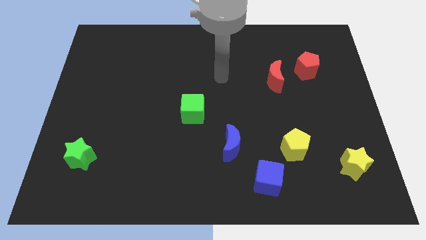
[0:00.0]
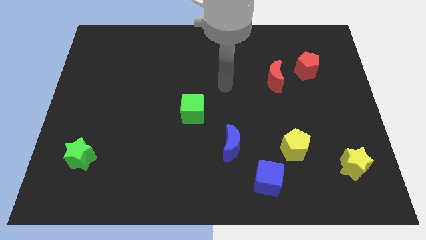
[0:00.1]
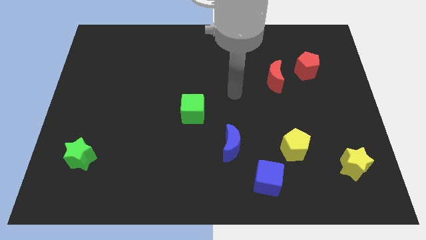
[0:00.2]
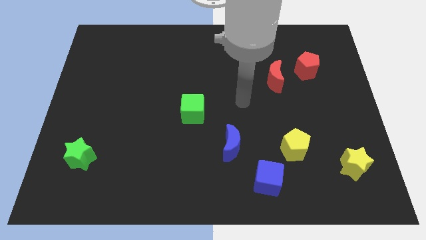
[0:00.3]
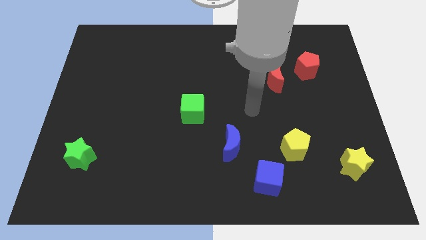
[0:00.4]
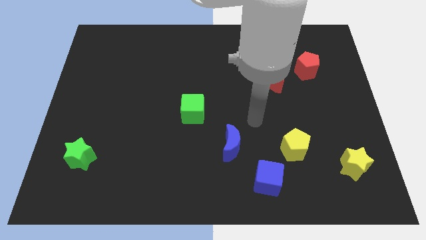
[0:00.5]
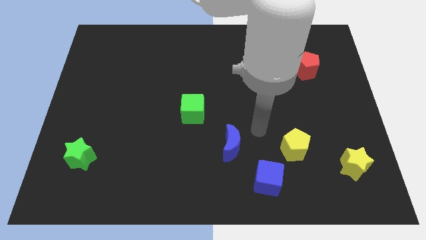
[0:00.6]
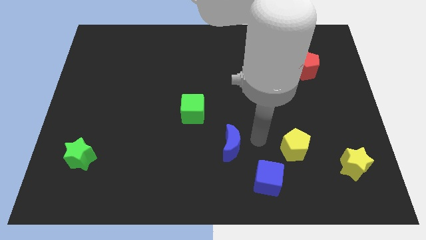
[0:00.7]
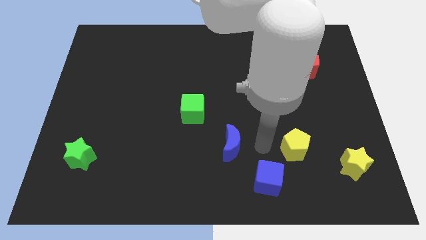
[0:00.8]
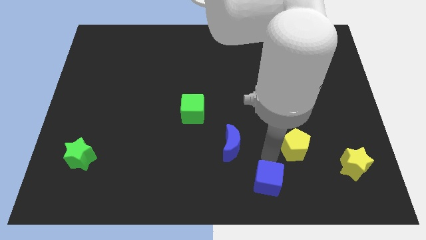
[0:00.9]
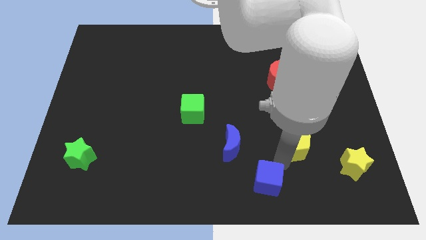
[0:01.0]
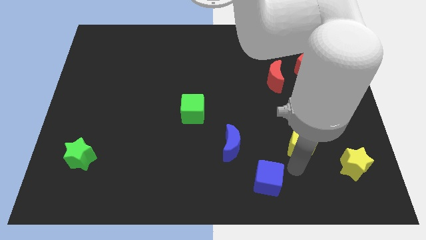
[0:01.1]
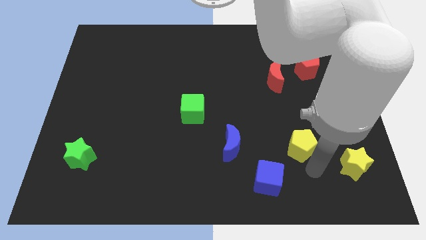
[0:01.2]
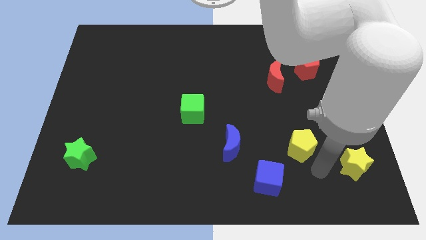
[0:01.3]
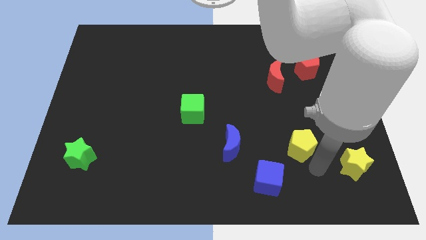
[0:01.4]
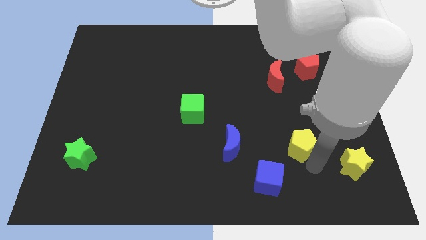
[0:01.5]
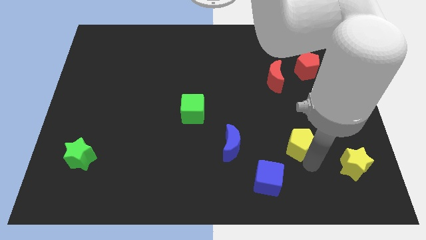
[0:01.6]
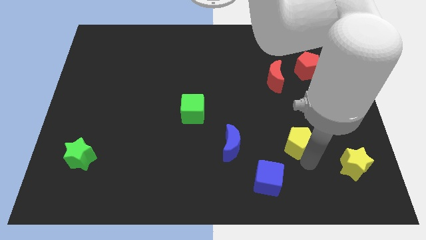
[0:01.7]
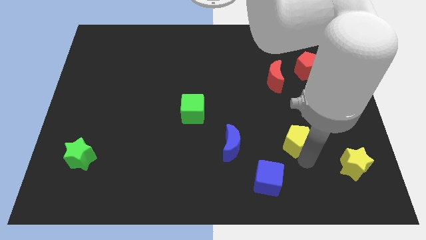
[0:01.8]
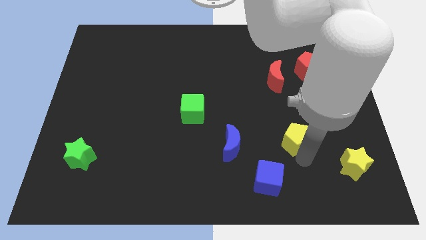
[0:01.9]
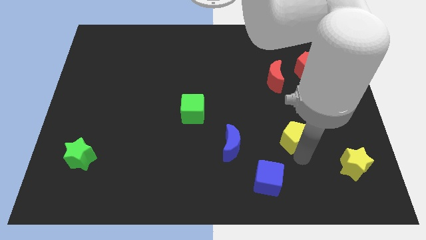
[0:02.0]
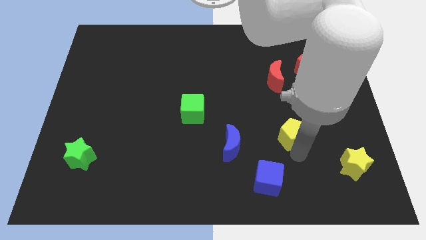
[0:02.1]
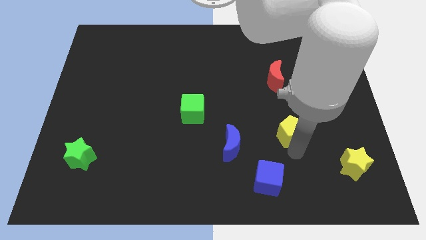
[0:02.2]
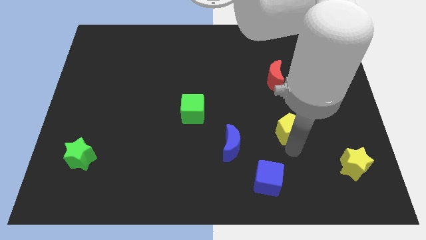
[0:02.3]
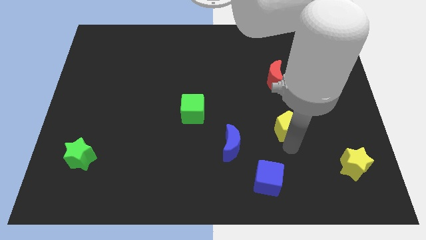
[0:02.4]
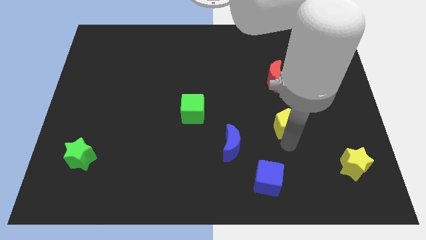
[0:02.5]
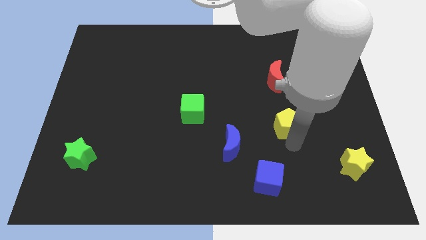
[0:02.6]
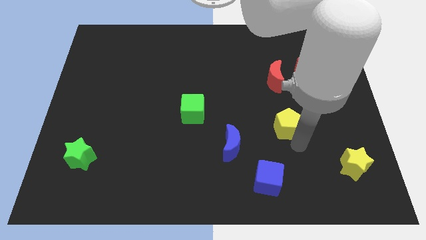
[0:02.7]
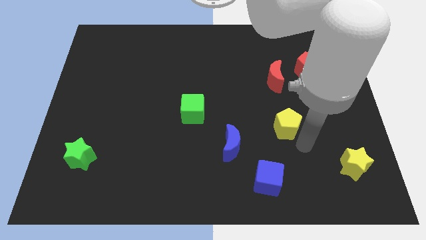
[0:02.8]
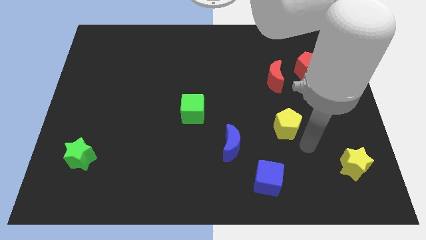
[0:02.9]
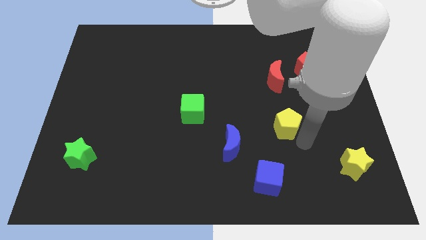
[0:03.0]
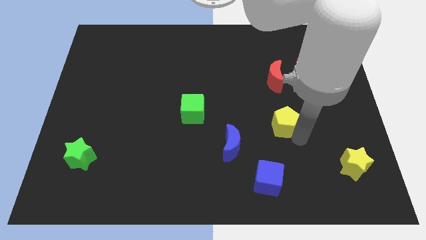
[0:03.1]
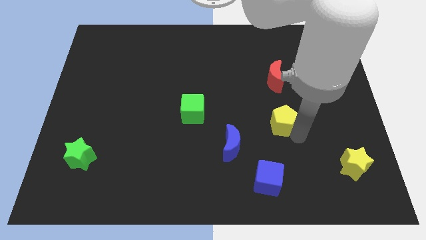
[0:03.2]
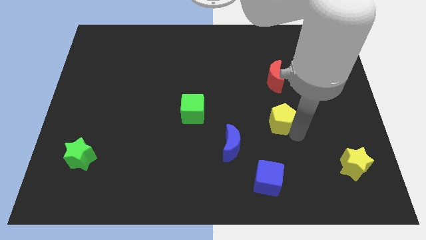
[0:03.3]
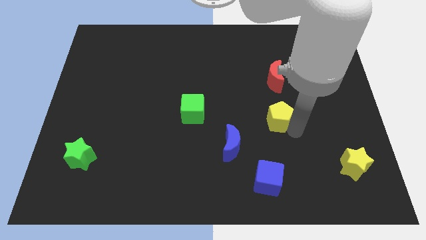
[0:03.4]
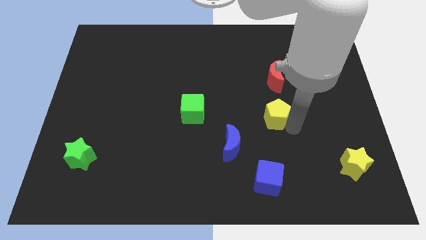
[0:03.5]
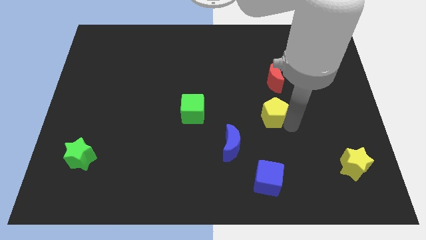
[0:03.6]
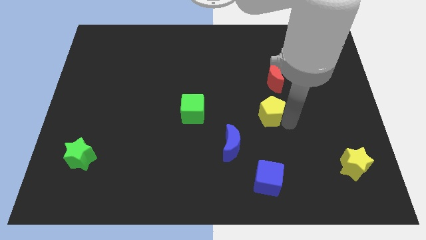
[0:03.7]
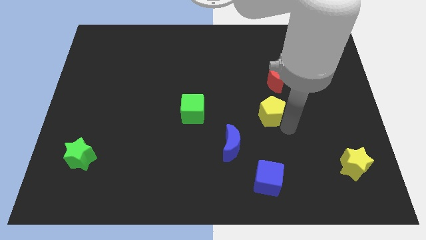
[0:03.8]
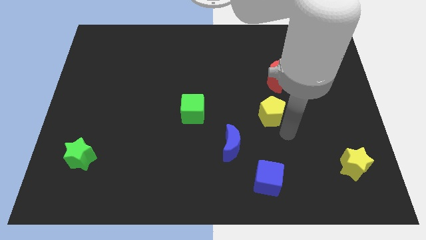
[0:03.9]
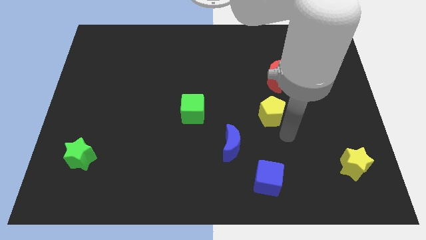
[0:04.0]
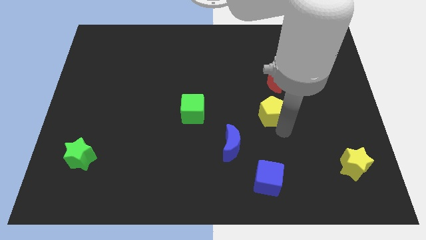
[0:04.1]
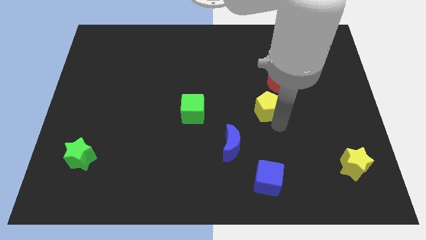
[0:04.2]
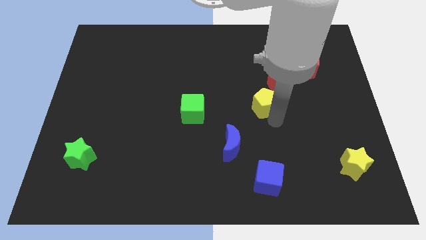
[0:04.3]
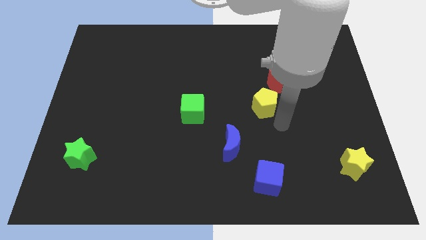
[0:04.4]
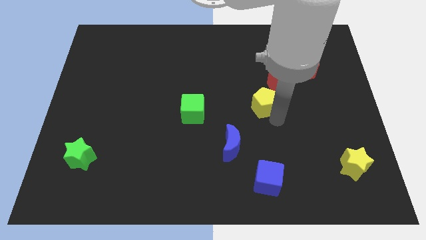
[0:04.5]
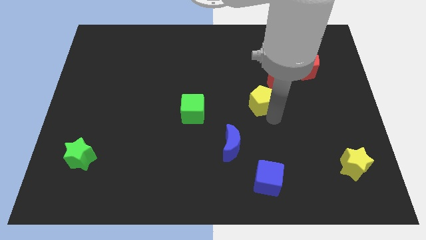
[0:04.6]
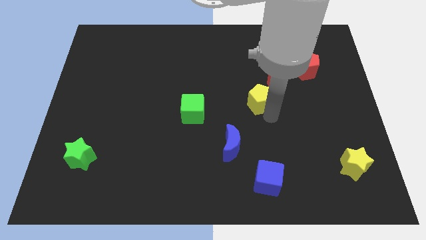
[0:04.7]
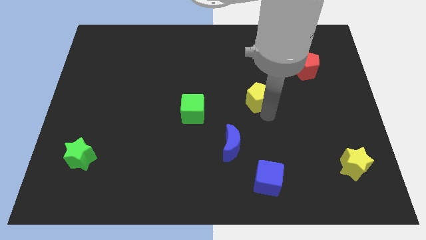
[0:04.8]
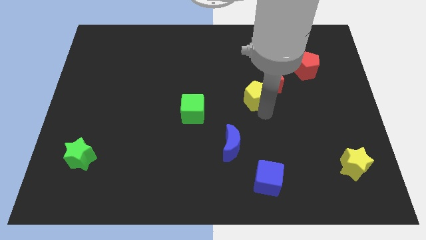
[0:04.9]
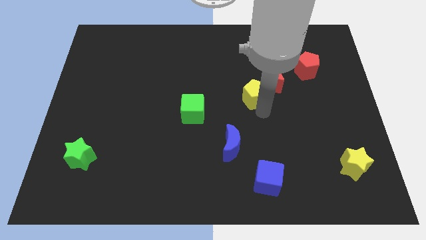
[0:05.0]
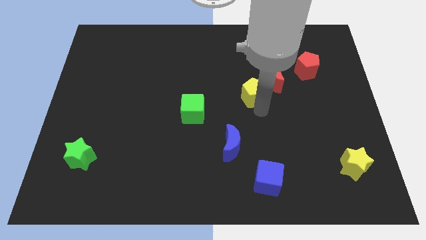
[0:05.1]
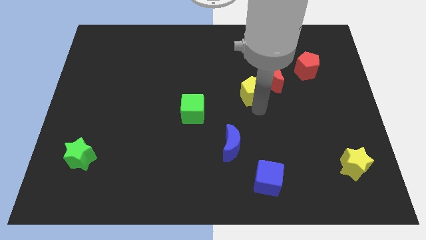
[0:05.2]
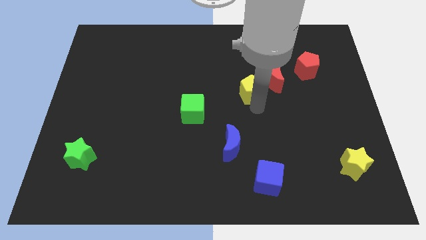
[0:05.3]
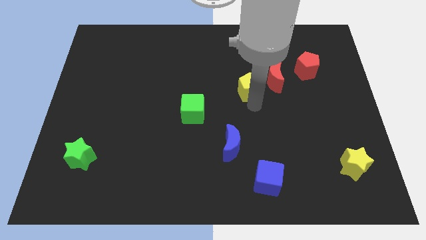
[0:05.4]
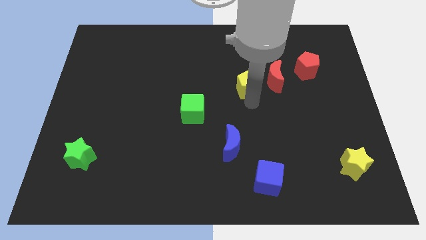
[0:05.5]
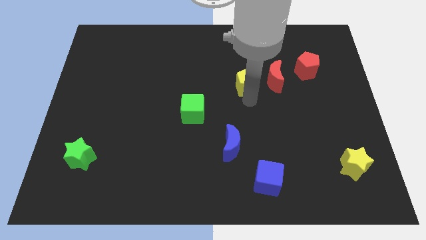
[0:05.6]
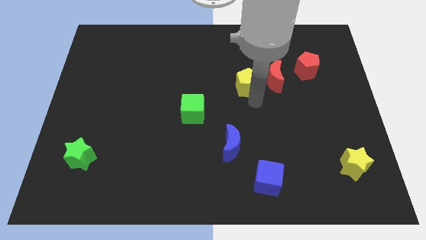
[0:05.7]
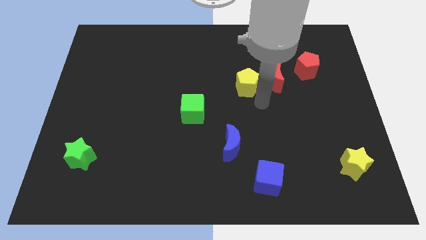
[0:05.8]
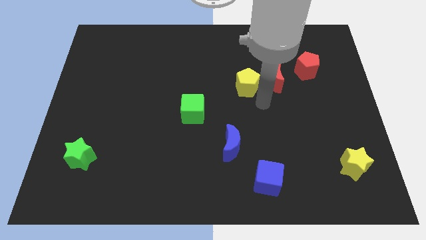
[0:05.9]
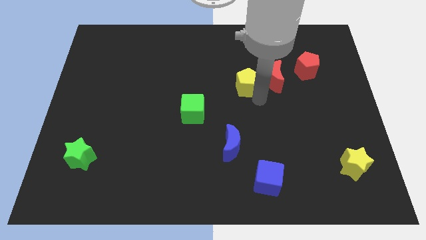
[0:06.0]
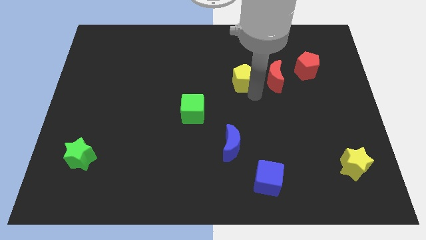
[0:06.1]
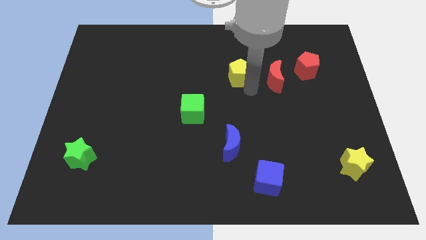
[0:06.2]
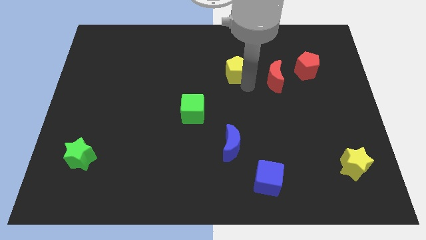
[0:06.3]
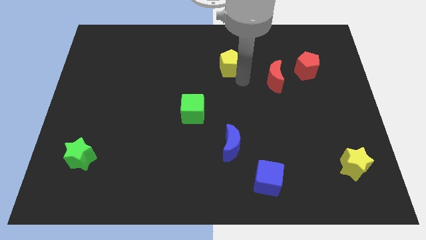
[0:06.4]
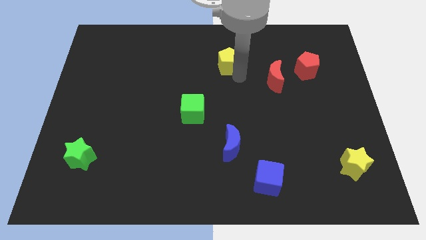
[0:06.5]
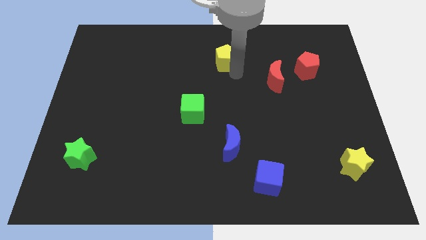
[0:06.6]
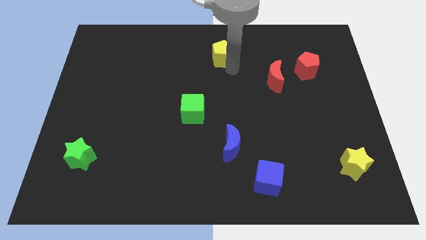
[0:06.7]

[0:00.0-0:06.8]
slide the yellow pentagon to the top
